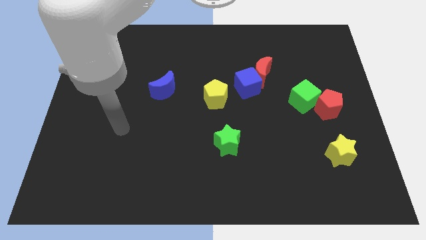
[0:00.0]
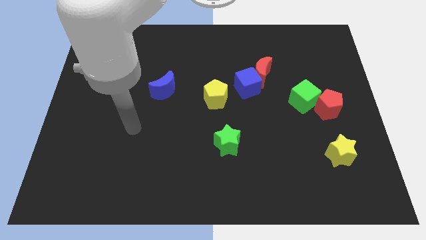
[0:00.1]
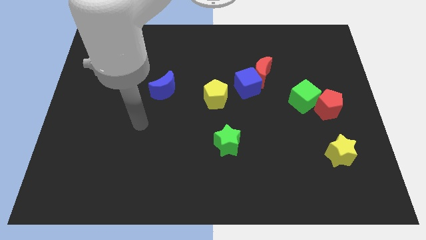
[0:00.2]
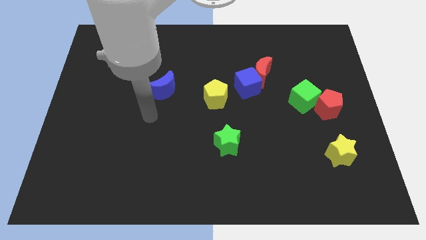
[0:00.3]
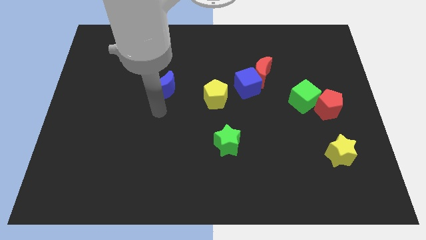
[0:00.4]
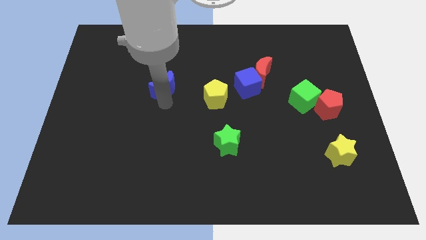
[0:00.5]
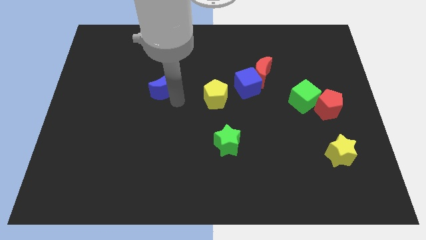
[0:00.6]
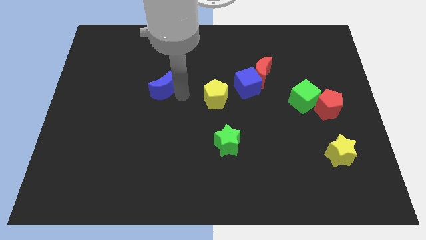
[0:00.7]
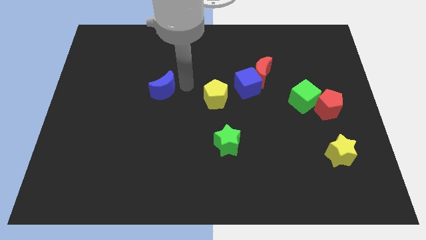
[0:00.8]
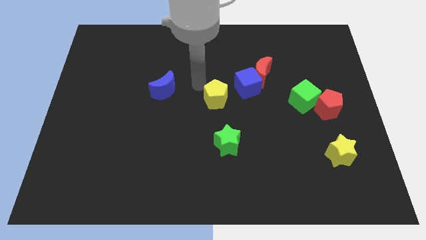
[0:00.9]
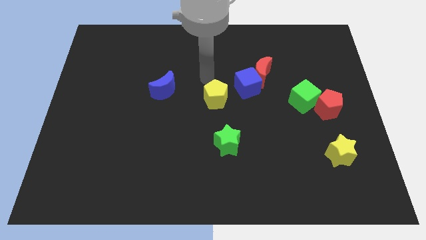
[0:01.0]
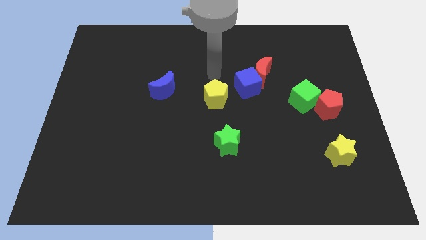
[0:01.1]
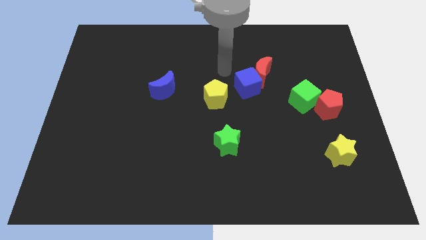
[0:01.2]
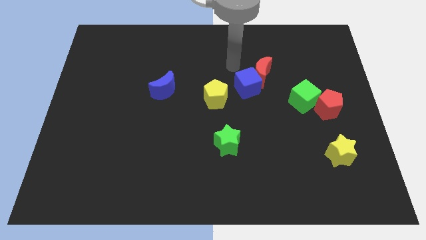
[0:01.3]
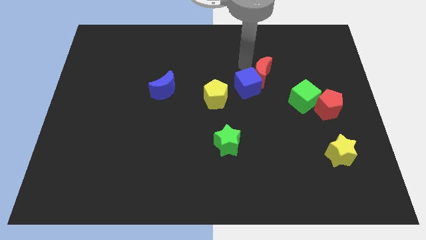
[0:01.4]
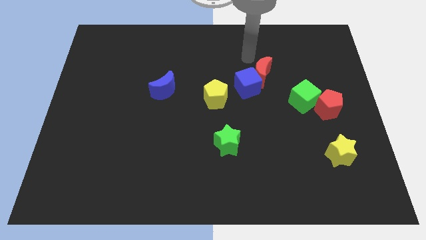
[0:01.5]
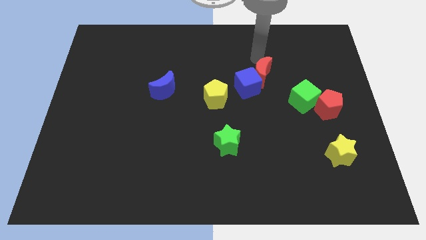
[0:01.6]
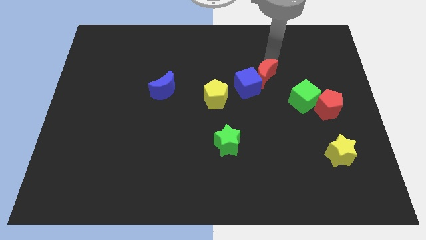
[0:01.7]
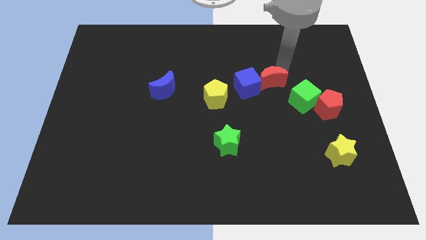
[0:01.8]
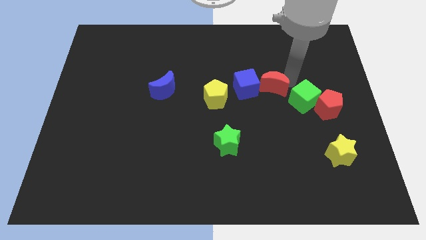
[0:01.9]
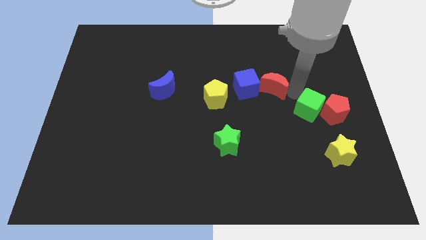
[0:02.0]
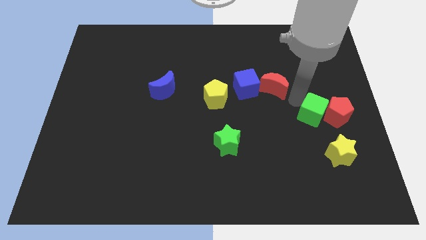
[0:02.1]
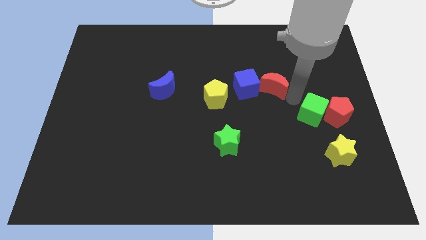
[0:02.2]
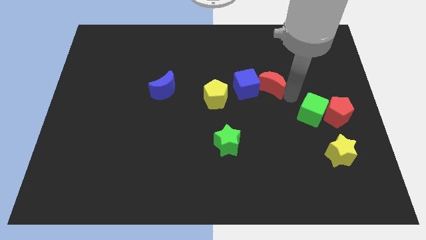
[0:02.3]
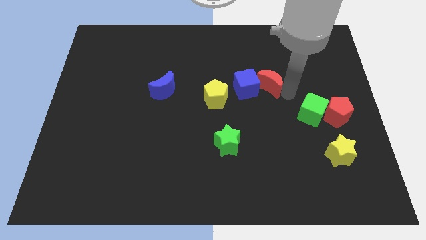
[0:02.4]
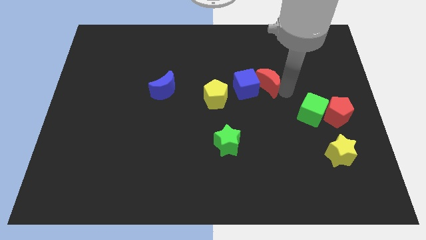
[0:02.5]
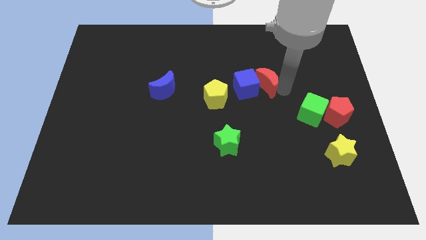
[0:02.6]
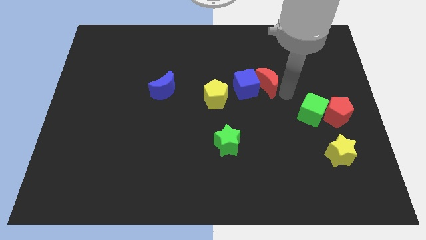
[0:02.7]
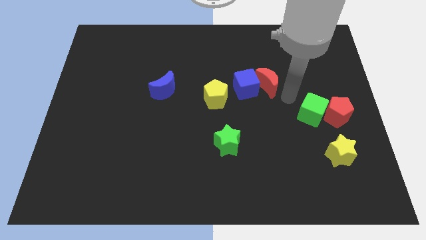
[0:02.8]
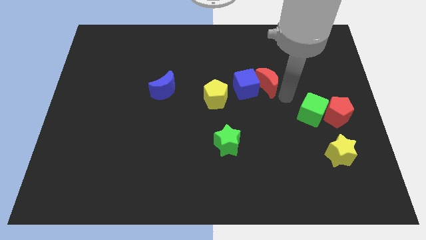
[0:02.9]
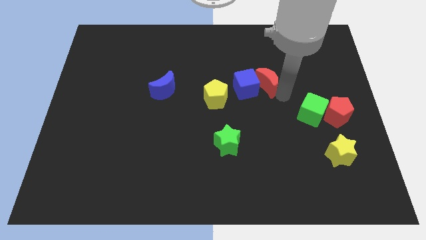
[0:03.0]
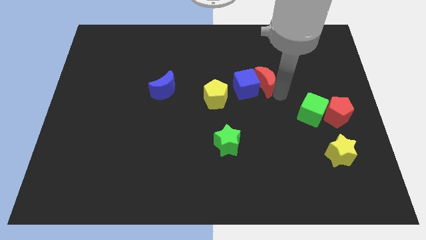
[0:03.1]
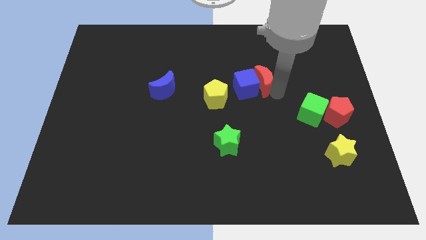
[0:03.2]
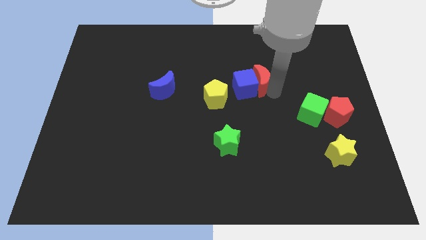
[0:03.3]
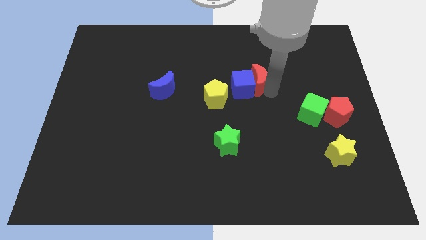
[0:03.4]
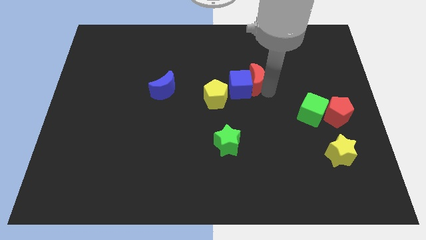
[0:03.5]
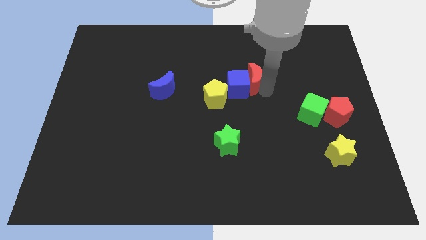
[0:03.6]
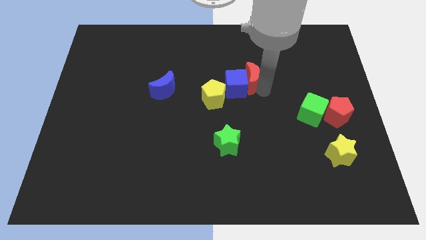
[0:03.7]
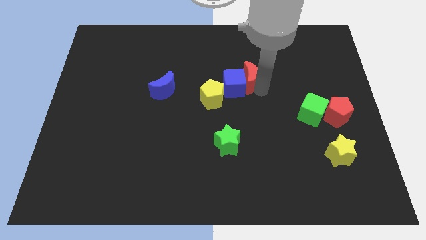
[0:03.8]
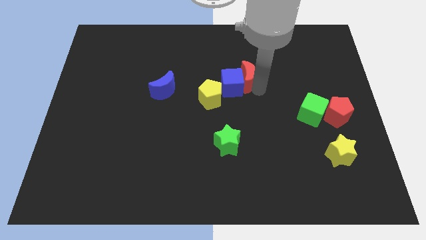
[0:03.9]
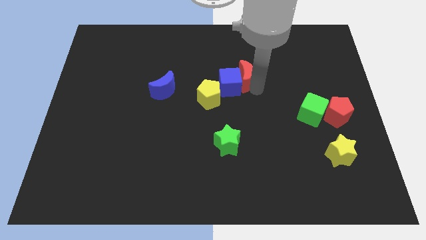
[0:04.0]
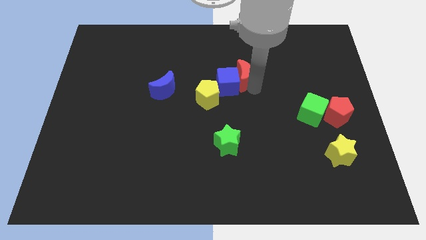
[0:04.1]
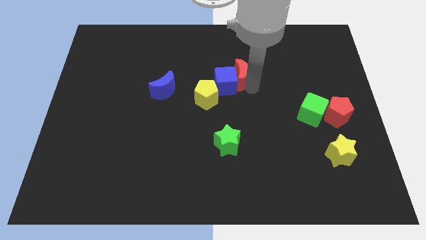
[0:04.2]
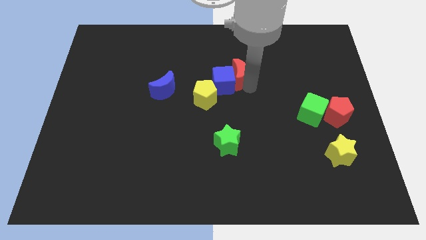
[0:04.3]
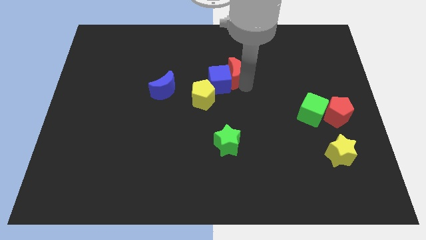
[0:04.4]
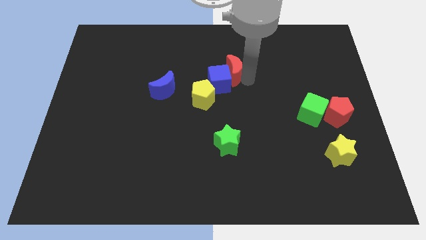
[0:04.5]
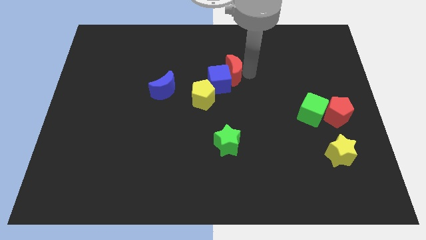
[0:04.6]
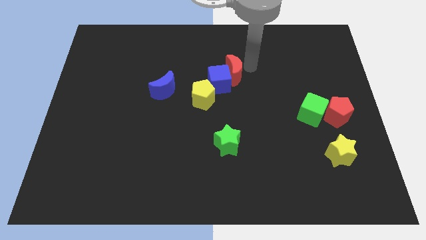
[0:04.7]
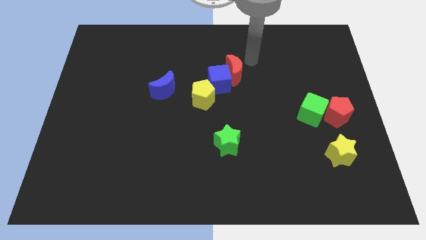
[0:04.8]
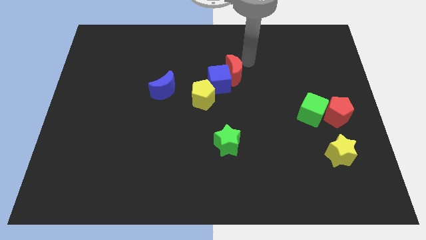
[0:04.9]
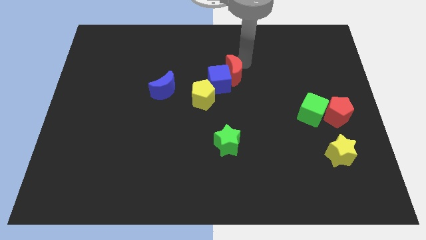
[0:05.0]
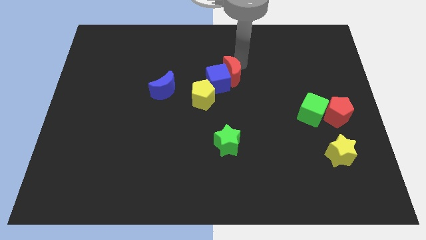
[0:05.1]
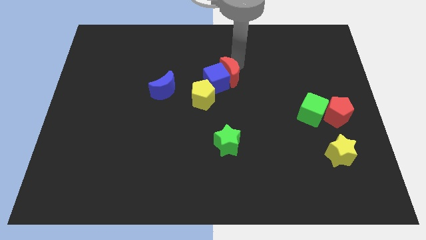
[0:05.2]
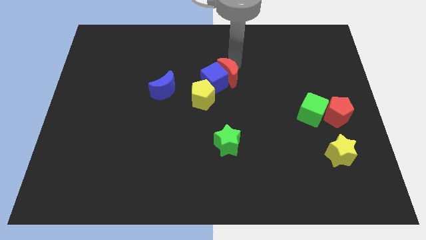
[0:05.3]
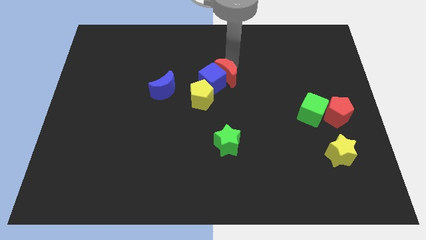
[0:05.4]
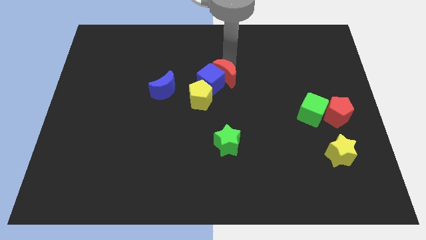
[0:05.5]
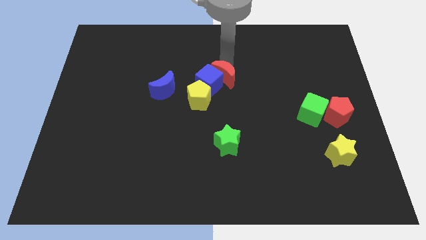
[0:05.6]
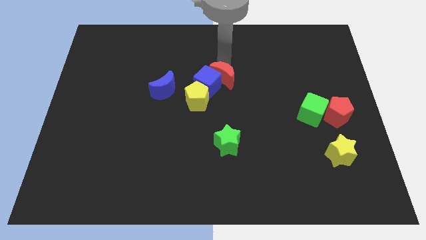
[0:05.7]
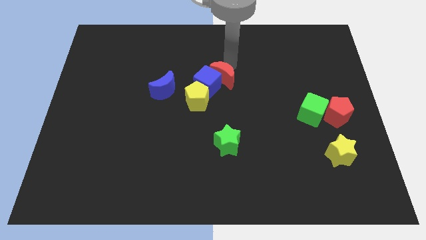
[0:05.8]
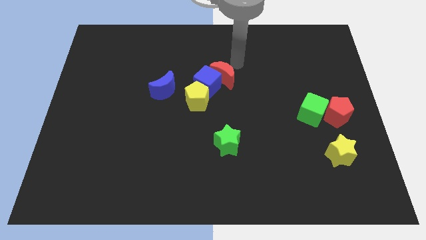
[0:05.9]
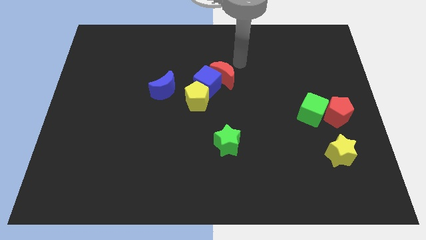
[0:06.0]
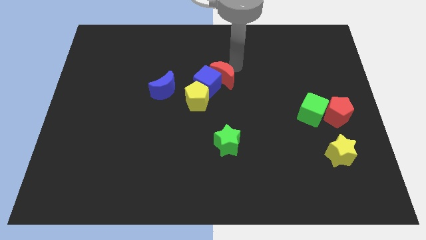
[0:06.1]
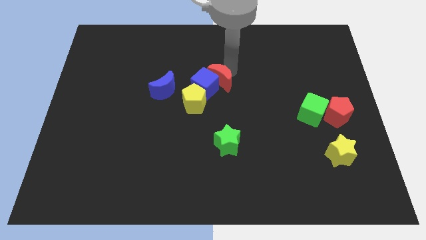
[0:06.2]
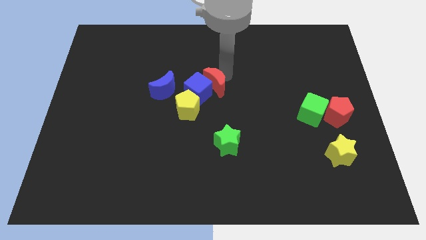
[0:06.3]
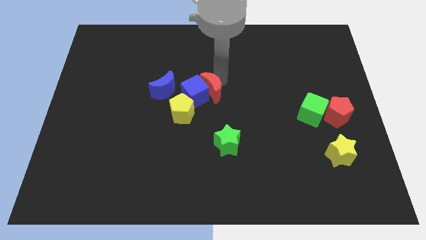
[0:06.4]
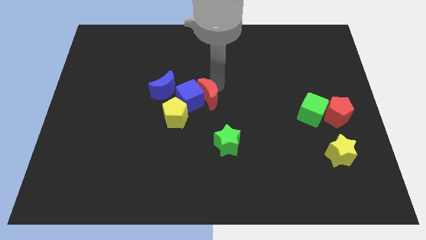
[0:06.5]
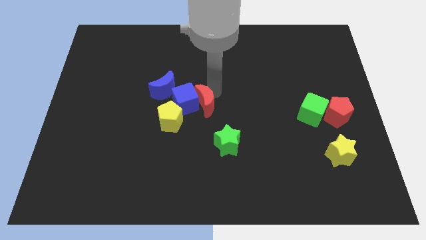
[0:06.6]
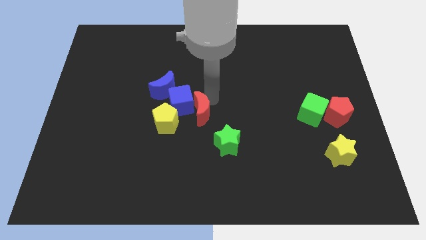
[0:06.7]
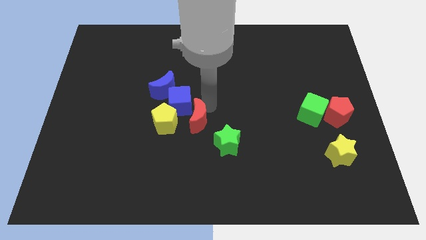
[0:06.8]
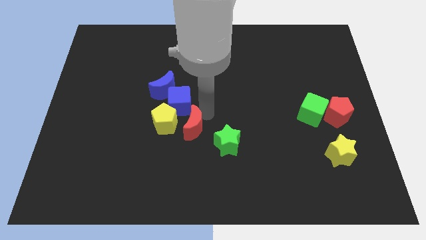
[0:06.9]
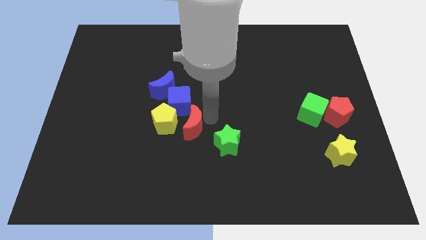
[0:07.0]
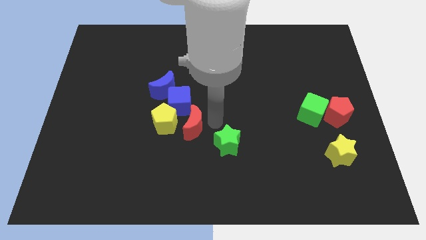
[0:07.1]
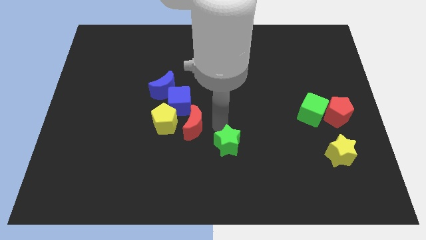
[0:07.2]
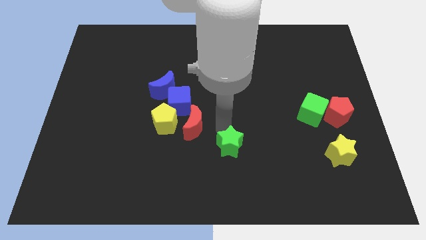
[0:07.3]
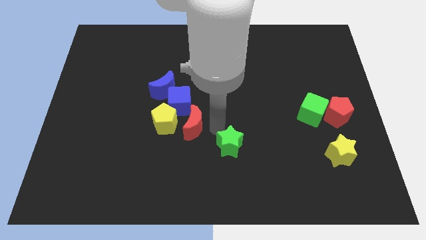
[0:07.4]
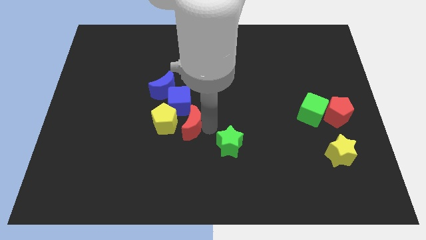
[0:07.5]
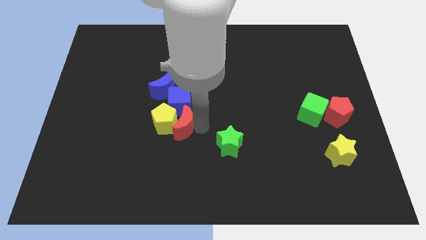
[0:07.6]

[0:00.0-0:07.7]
move the red moon to the yellow pentagon
